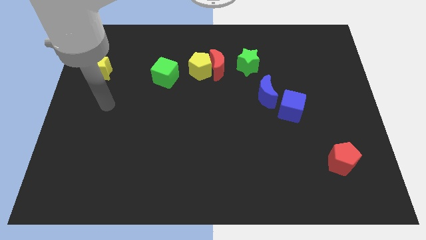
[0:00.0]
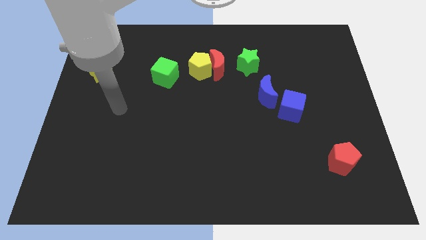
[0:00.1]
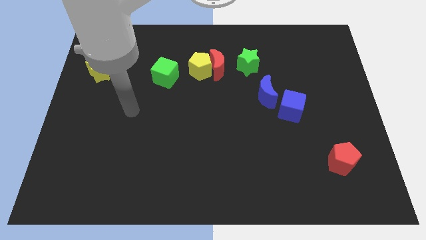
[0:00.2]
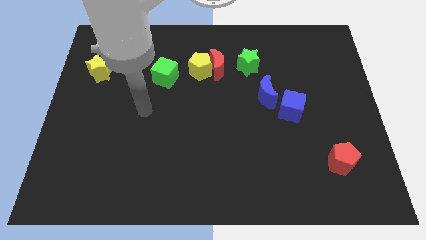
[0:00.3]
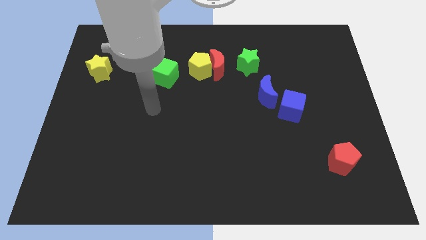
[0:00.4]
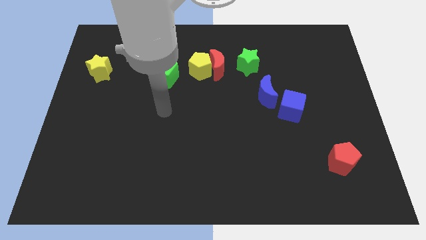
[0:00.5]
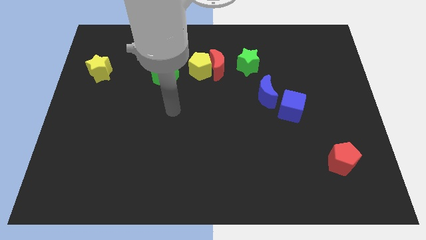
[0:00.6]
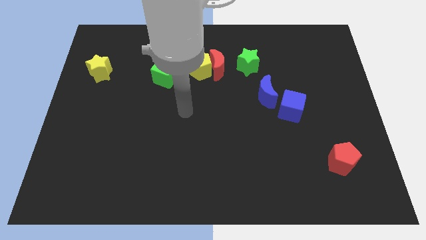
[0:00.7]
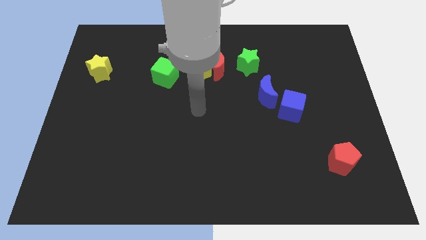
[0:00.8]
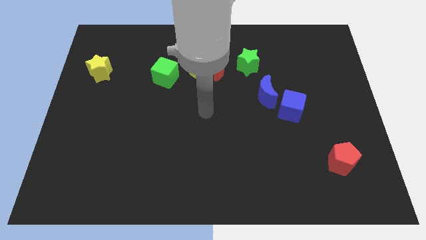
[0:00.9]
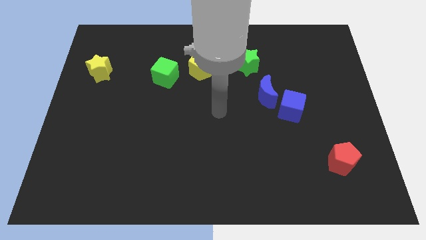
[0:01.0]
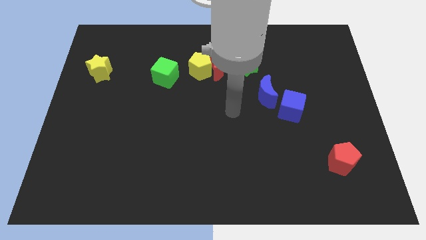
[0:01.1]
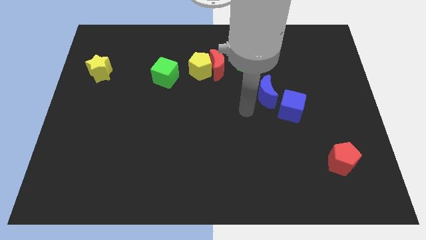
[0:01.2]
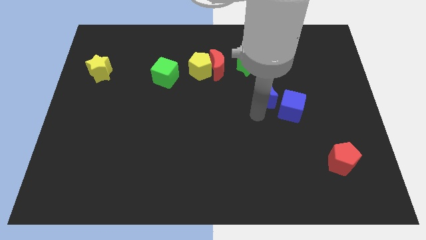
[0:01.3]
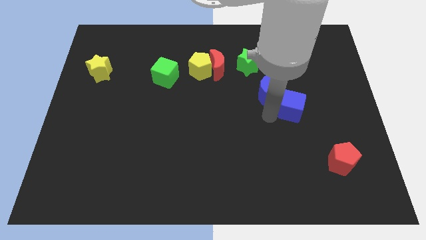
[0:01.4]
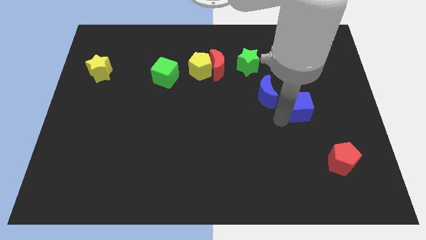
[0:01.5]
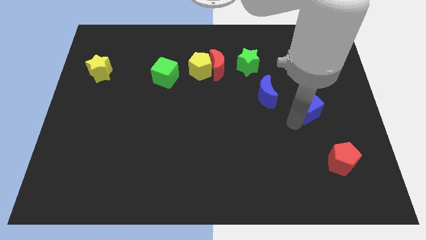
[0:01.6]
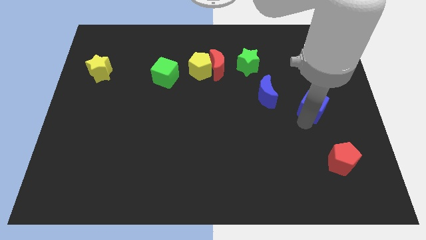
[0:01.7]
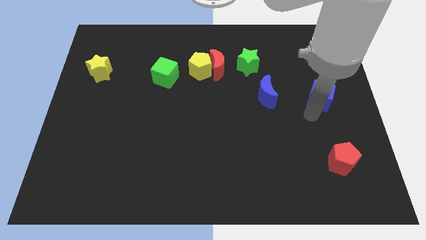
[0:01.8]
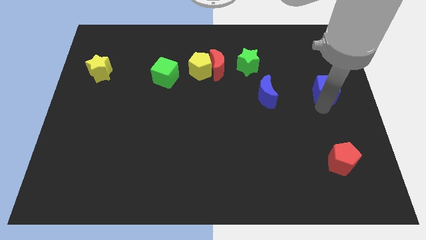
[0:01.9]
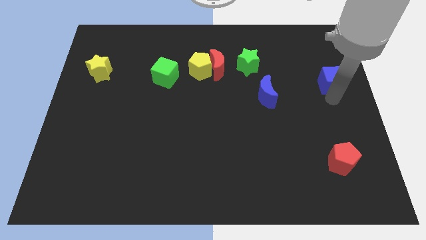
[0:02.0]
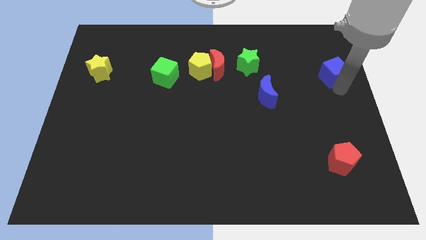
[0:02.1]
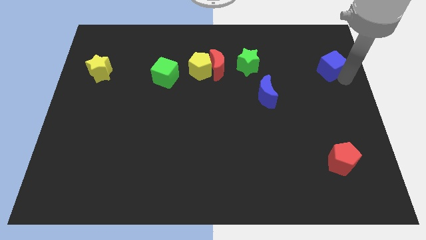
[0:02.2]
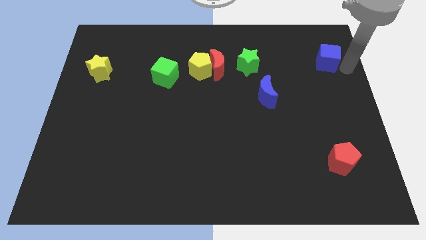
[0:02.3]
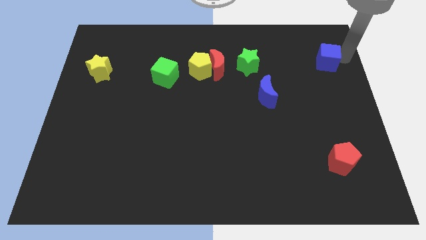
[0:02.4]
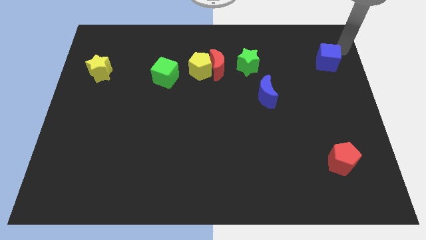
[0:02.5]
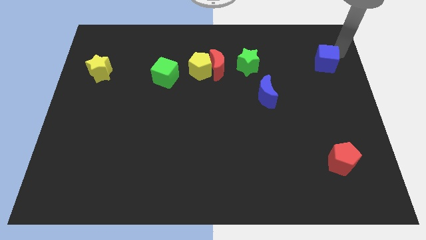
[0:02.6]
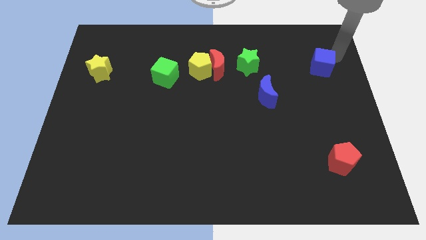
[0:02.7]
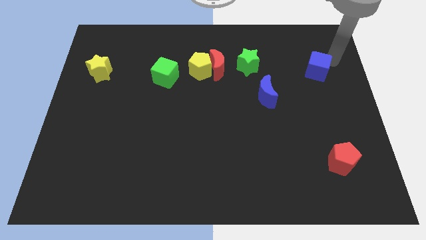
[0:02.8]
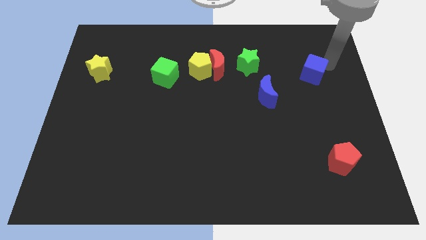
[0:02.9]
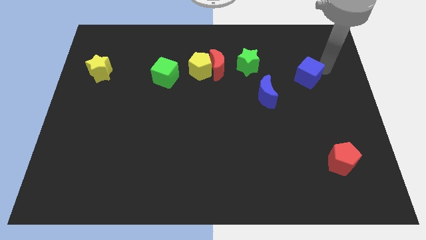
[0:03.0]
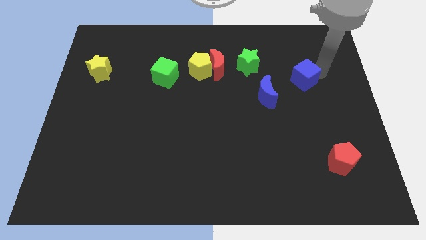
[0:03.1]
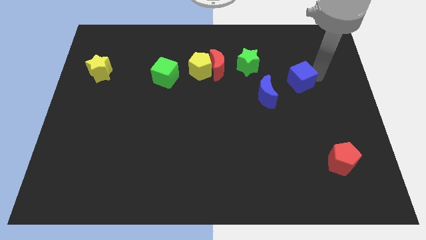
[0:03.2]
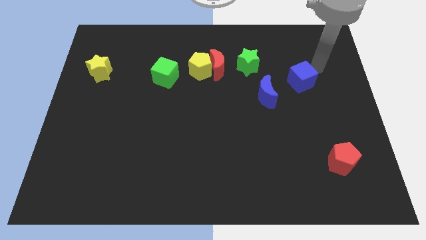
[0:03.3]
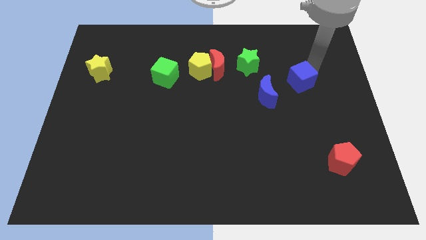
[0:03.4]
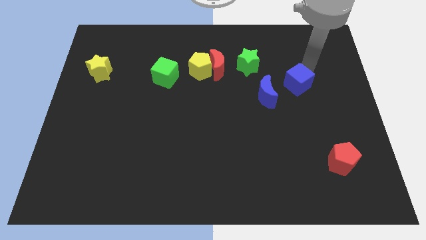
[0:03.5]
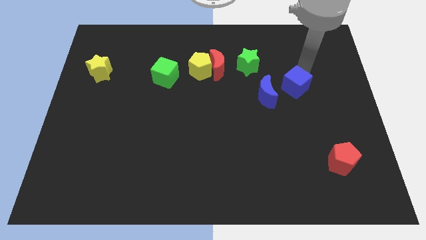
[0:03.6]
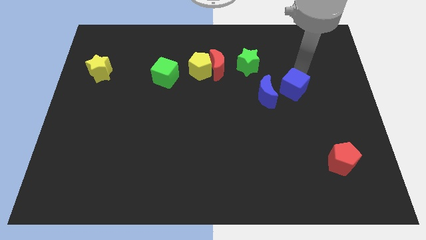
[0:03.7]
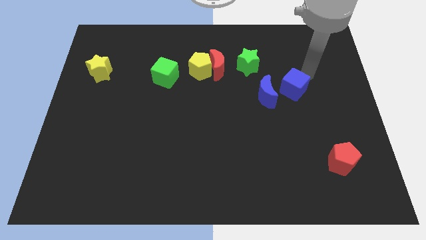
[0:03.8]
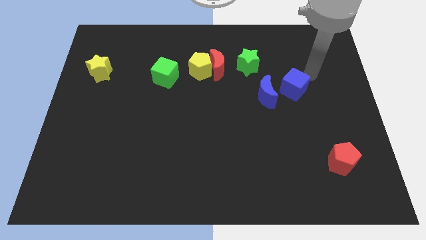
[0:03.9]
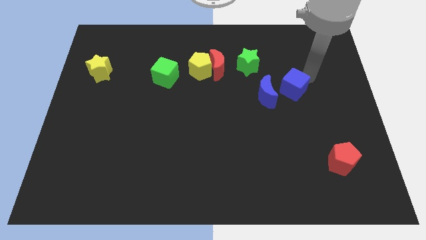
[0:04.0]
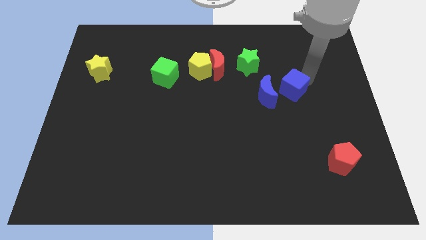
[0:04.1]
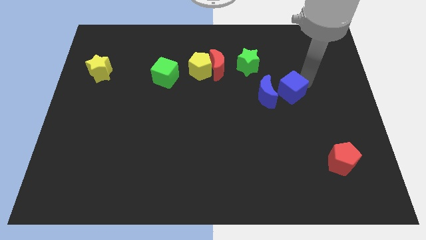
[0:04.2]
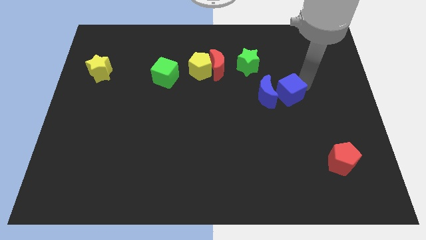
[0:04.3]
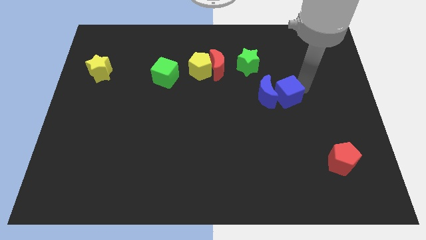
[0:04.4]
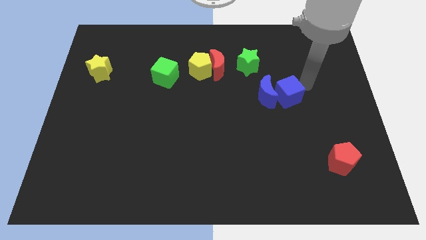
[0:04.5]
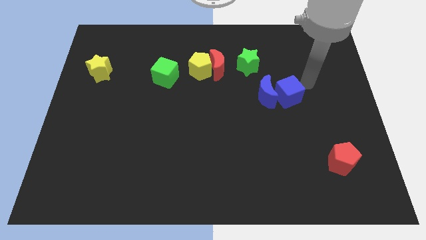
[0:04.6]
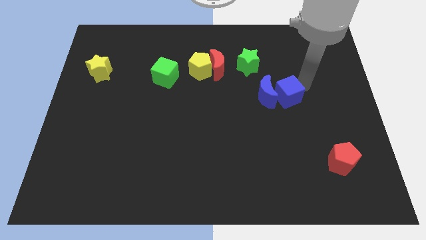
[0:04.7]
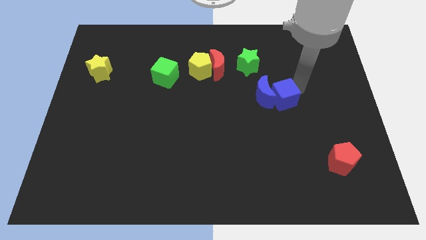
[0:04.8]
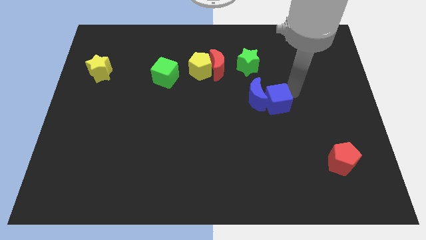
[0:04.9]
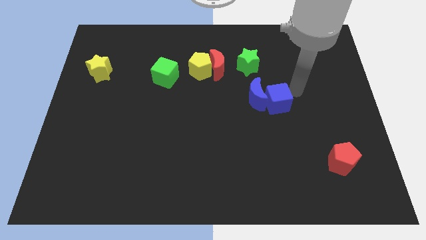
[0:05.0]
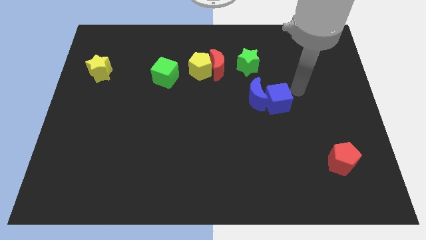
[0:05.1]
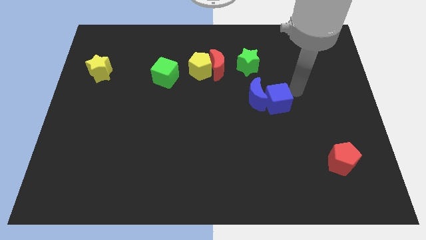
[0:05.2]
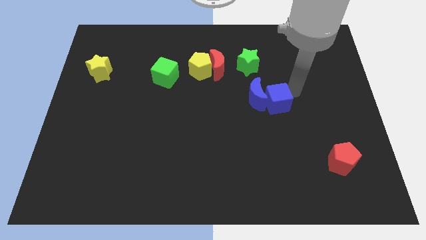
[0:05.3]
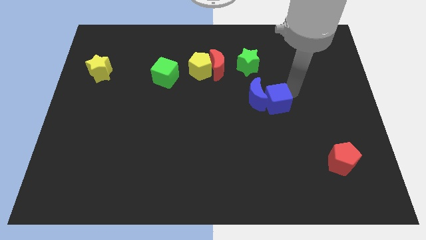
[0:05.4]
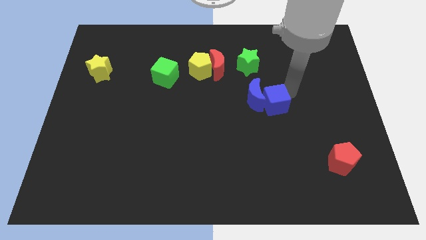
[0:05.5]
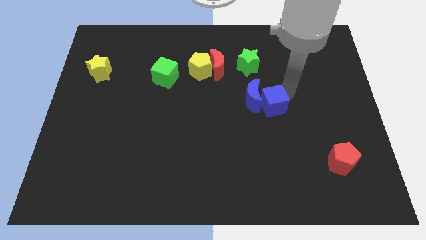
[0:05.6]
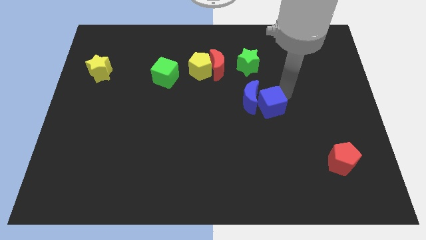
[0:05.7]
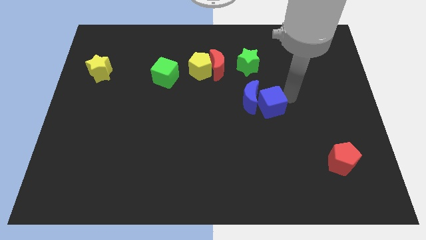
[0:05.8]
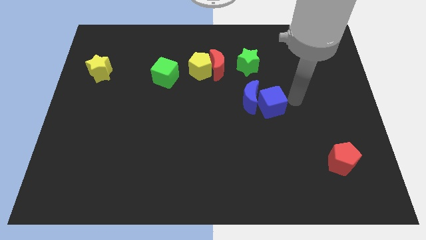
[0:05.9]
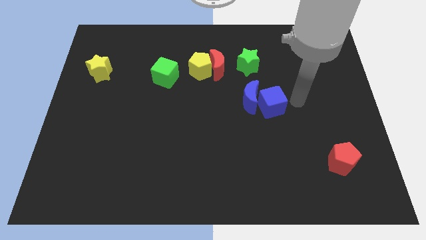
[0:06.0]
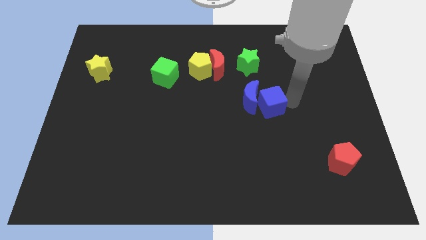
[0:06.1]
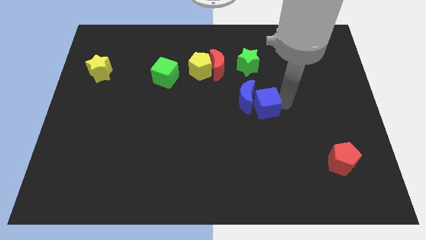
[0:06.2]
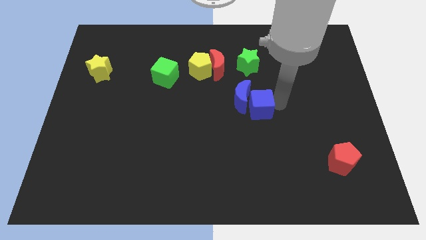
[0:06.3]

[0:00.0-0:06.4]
push the blue cube a little left

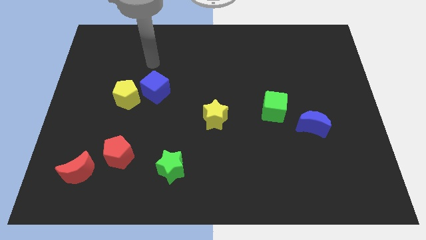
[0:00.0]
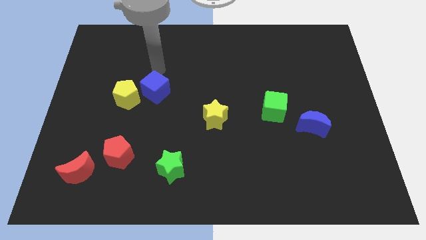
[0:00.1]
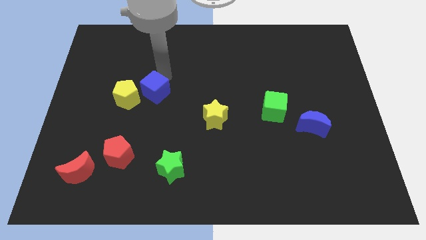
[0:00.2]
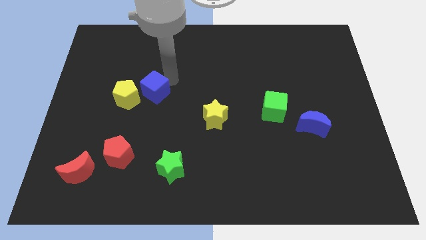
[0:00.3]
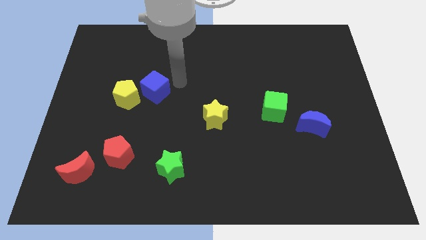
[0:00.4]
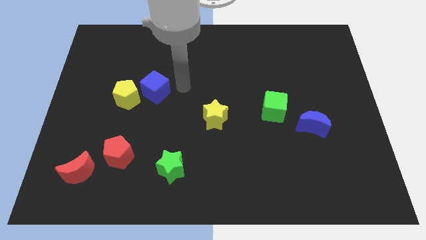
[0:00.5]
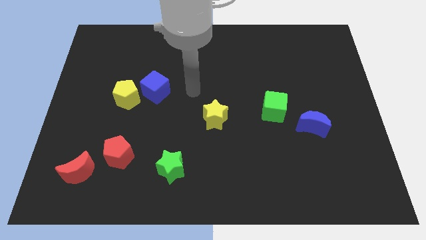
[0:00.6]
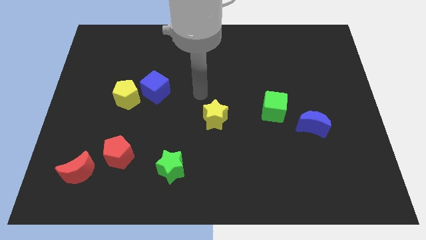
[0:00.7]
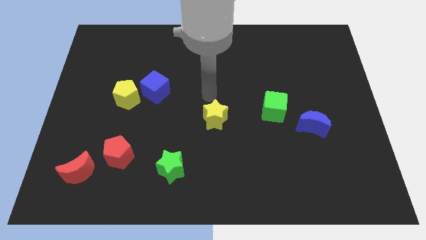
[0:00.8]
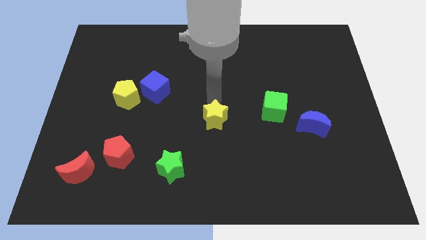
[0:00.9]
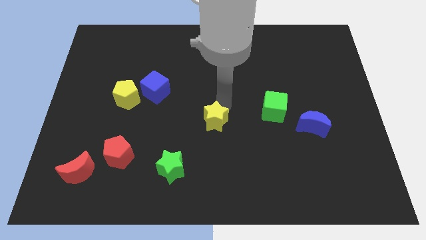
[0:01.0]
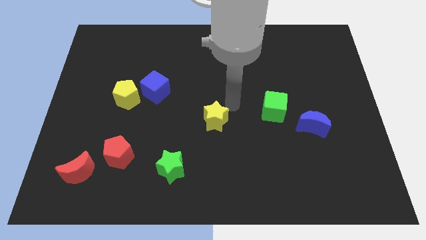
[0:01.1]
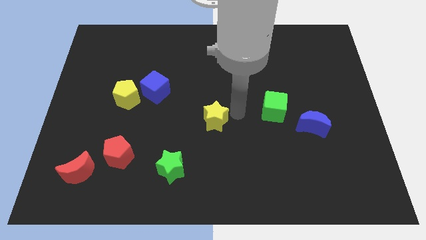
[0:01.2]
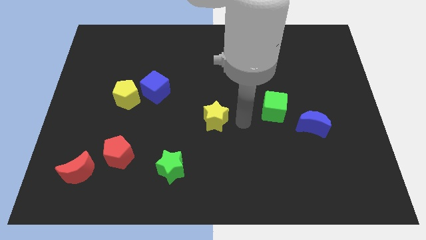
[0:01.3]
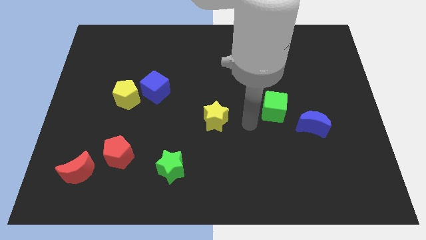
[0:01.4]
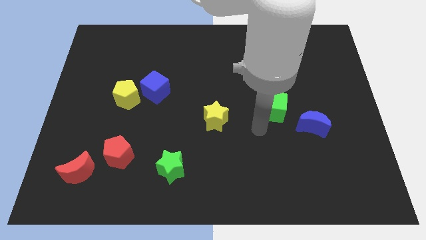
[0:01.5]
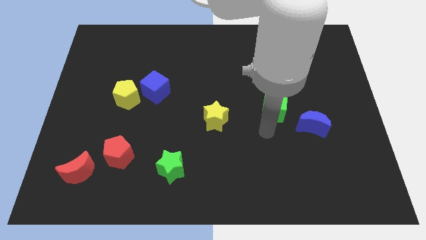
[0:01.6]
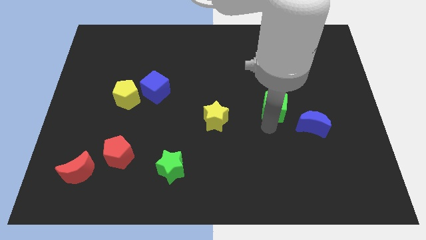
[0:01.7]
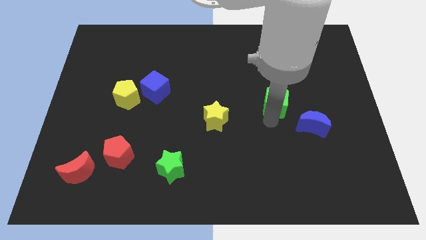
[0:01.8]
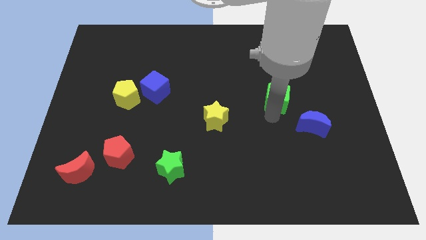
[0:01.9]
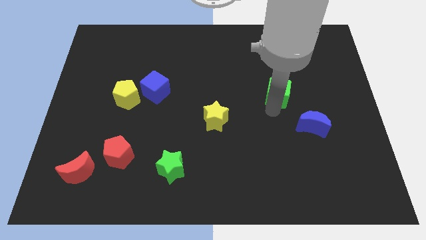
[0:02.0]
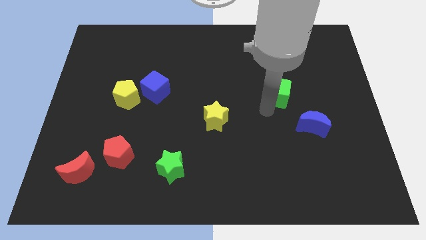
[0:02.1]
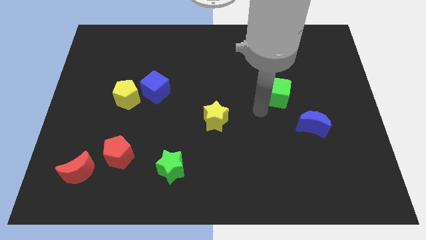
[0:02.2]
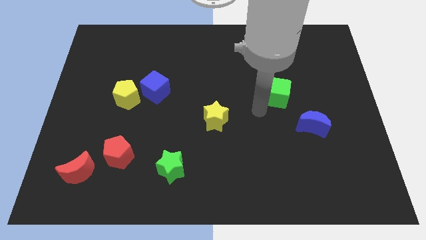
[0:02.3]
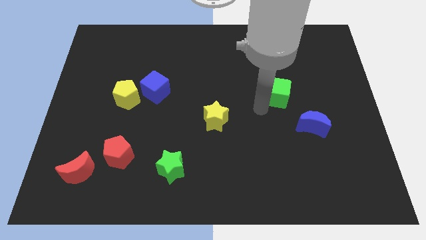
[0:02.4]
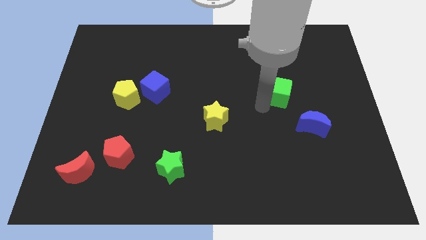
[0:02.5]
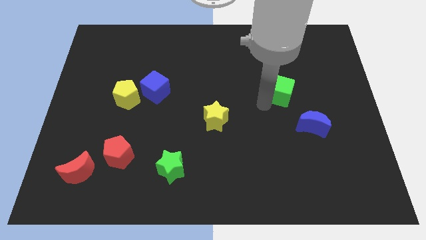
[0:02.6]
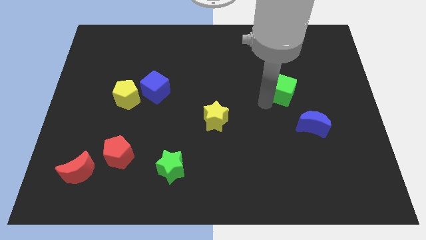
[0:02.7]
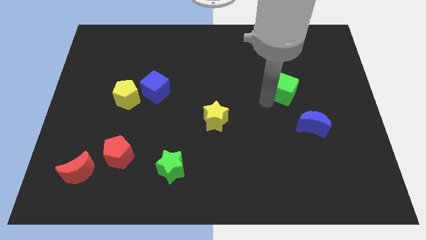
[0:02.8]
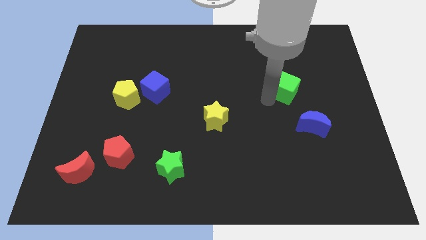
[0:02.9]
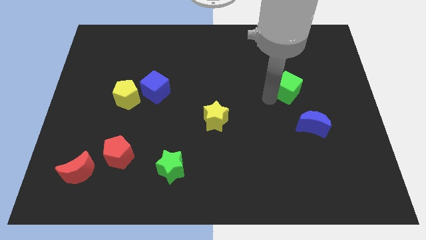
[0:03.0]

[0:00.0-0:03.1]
slide the green cube a little bit upwards and to the right diagonally
